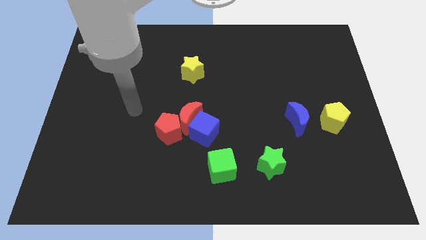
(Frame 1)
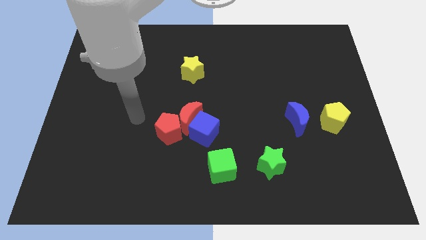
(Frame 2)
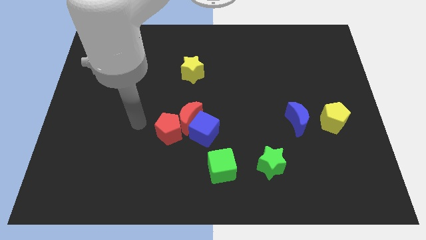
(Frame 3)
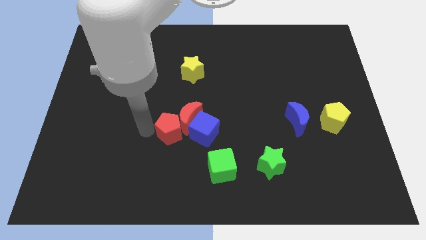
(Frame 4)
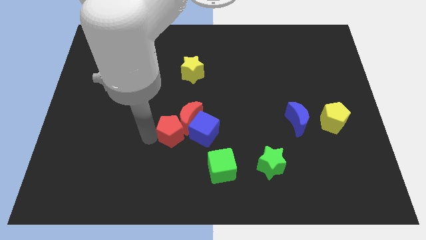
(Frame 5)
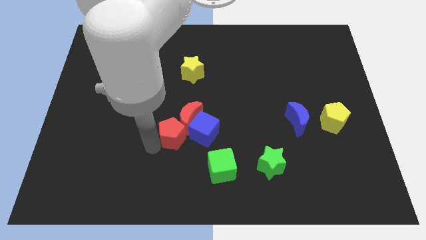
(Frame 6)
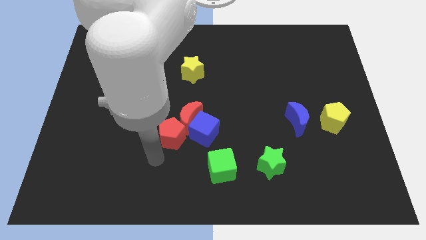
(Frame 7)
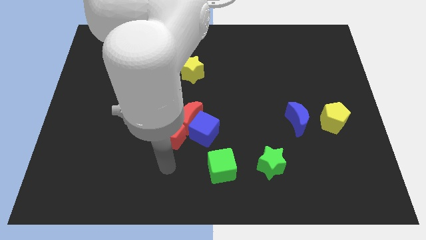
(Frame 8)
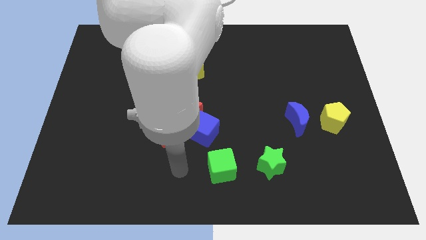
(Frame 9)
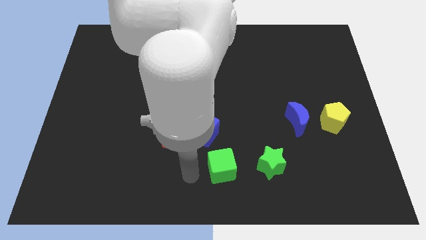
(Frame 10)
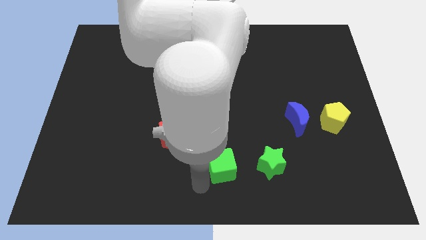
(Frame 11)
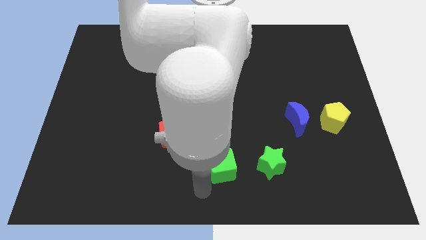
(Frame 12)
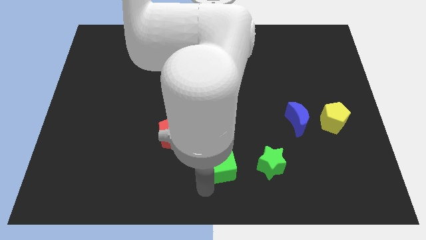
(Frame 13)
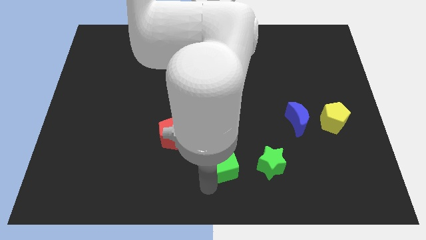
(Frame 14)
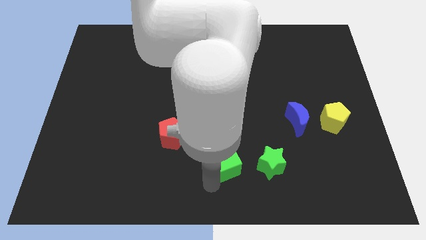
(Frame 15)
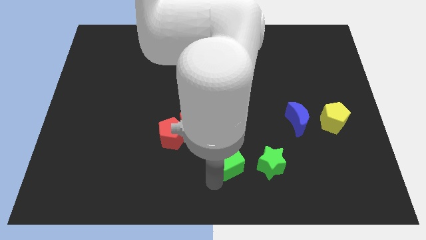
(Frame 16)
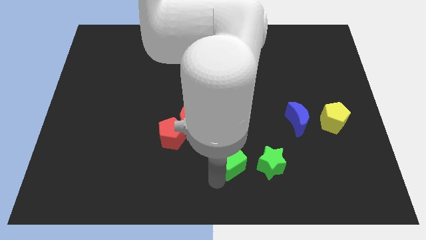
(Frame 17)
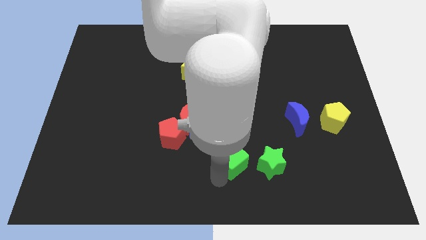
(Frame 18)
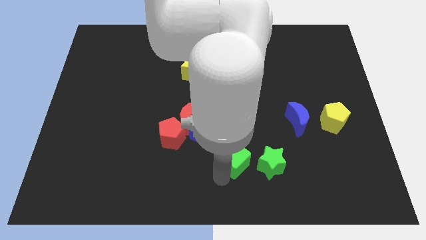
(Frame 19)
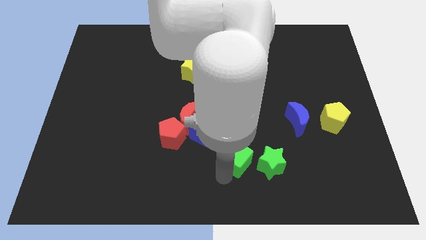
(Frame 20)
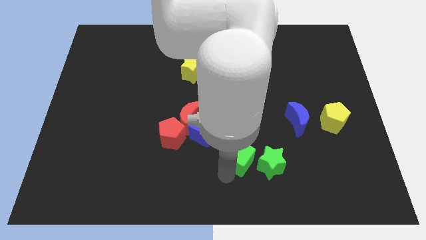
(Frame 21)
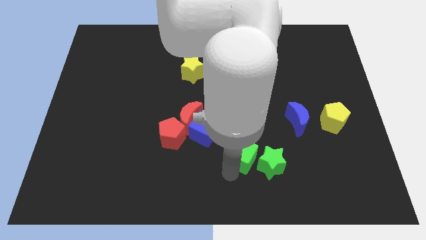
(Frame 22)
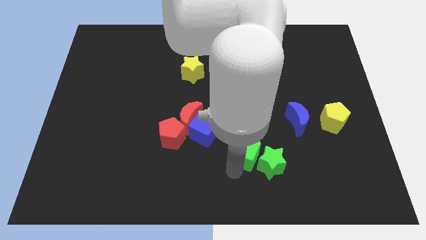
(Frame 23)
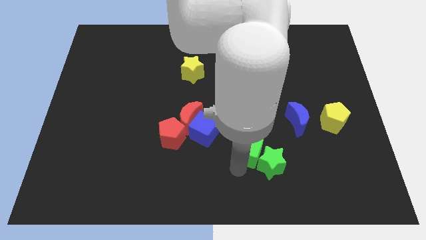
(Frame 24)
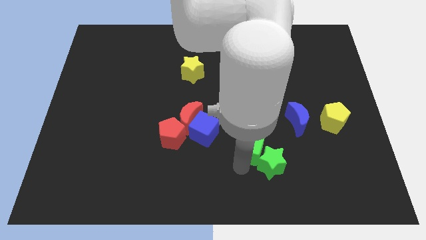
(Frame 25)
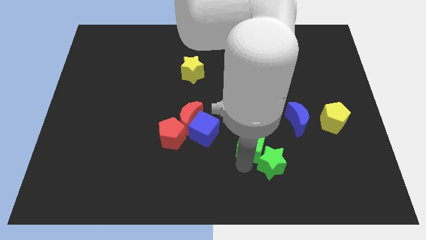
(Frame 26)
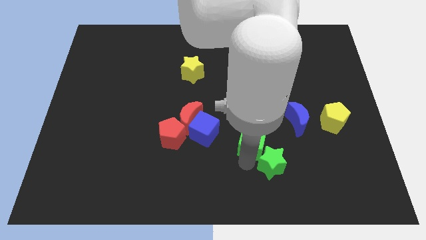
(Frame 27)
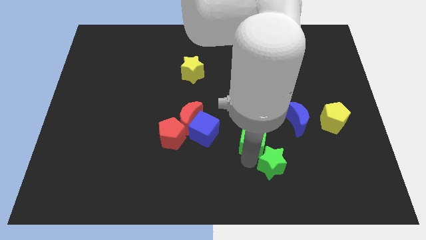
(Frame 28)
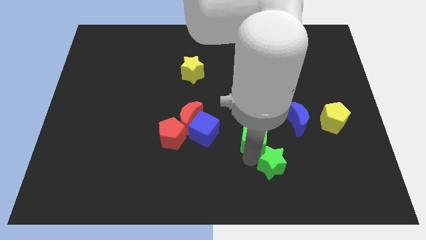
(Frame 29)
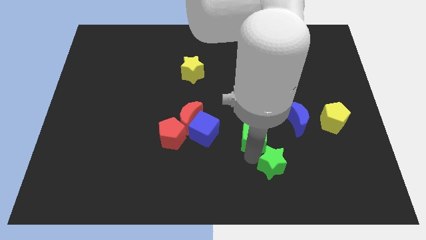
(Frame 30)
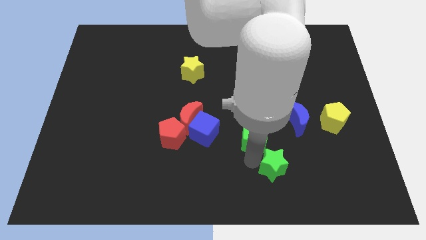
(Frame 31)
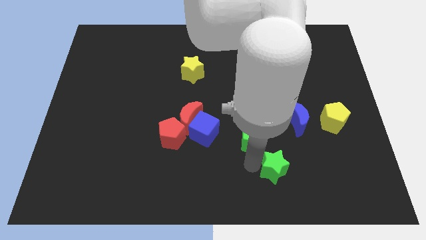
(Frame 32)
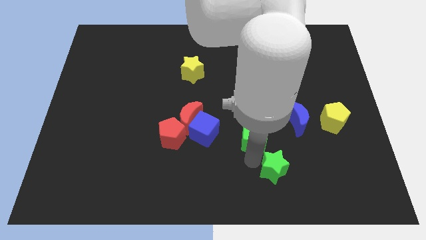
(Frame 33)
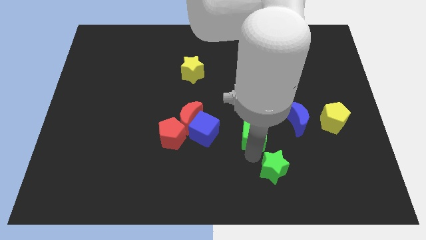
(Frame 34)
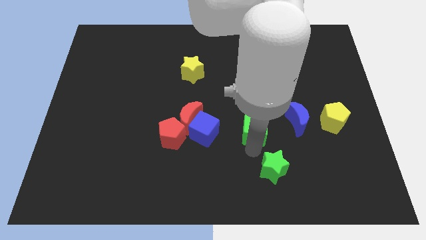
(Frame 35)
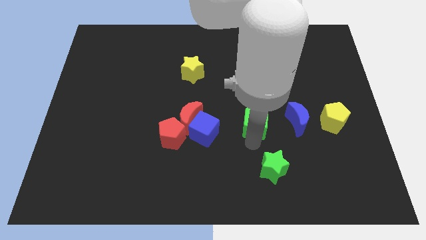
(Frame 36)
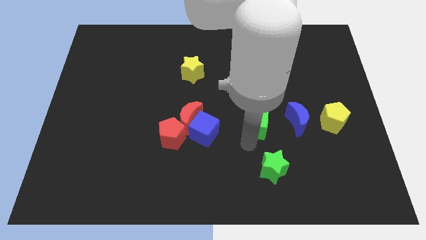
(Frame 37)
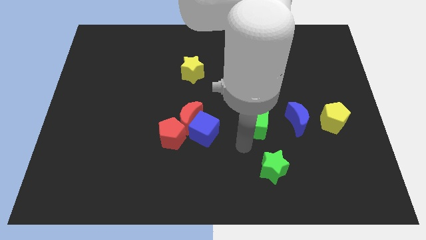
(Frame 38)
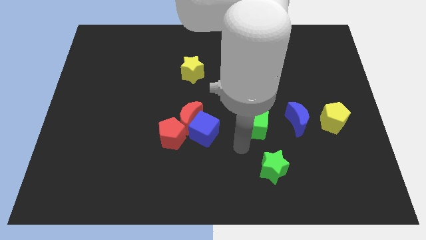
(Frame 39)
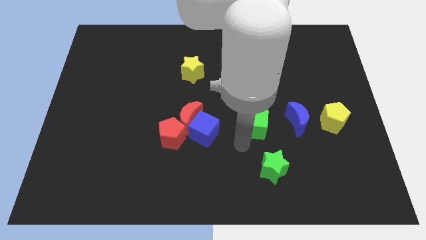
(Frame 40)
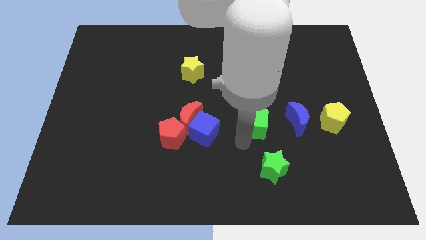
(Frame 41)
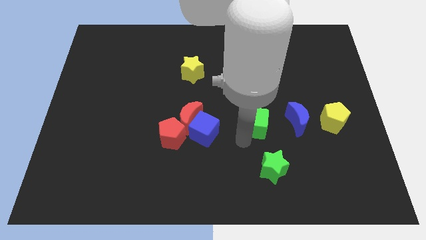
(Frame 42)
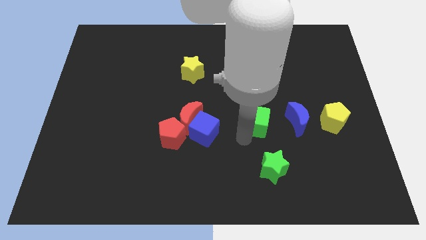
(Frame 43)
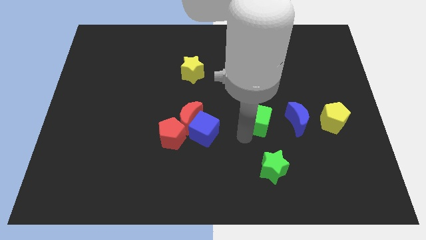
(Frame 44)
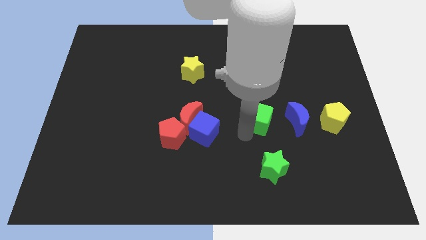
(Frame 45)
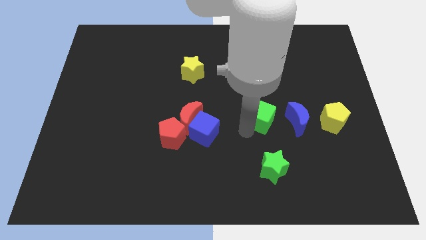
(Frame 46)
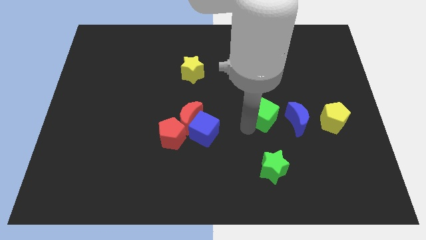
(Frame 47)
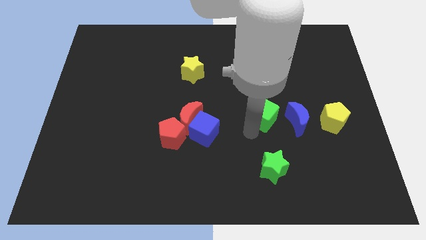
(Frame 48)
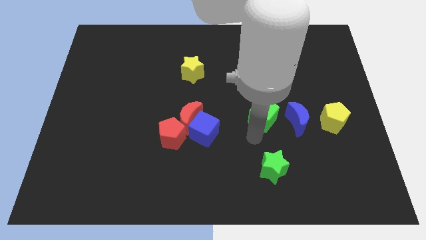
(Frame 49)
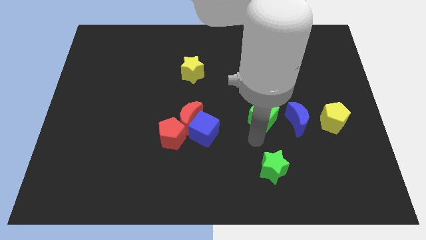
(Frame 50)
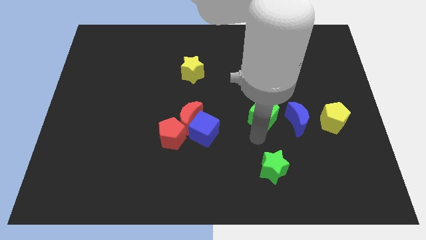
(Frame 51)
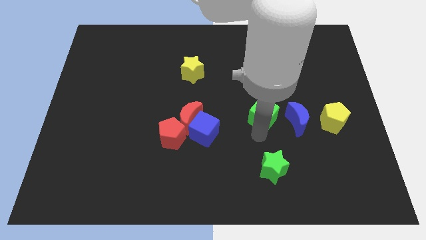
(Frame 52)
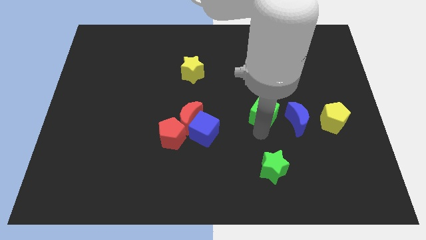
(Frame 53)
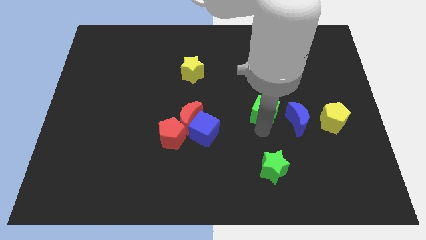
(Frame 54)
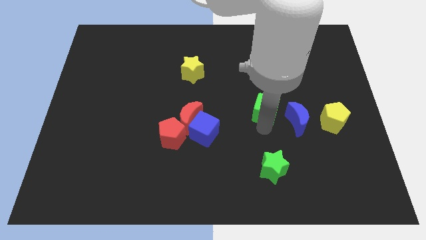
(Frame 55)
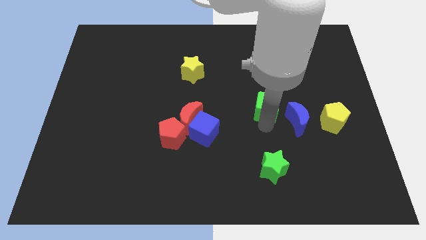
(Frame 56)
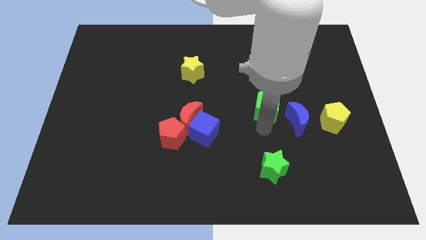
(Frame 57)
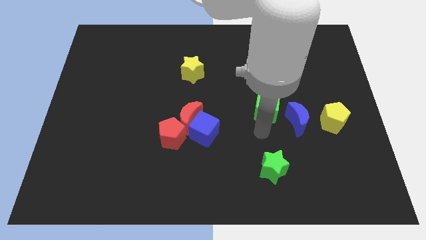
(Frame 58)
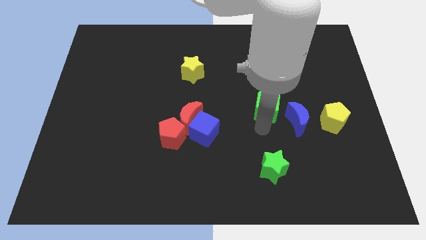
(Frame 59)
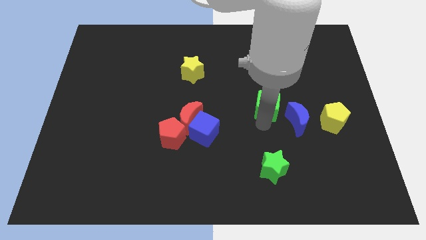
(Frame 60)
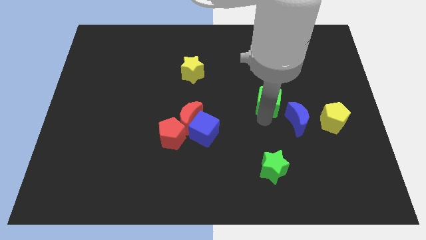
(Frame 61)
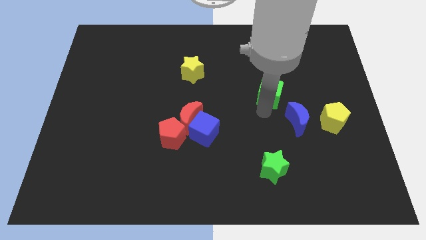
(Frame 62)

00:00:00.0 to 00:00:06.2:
move the green cube upwards and then to the right

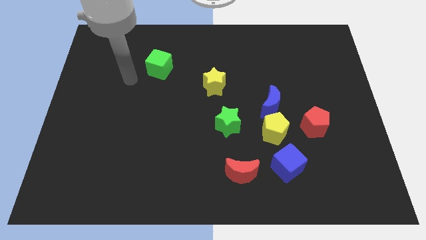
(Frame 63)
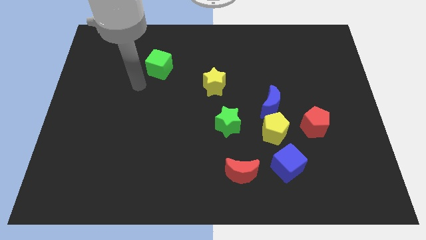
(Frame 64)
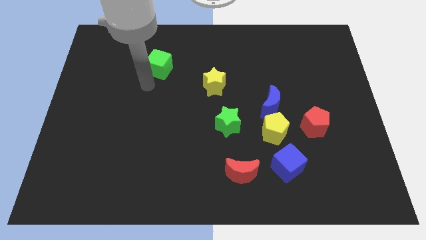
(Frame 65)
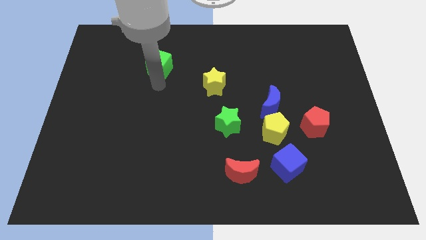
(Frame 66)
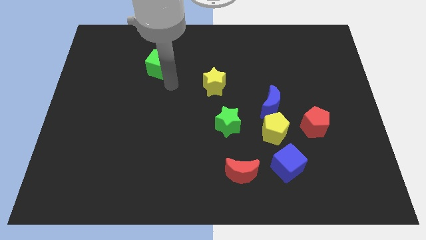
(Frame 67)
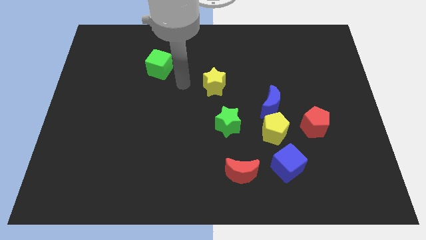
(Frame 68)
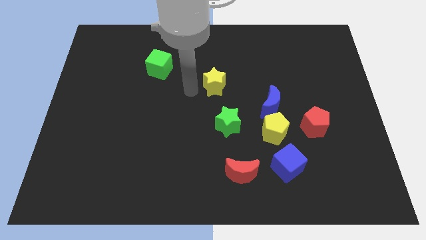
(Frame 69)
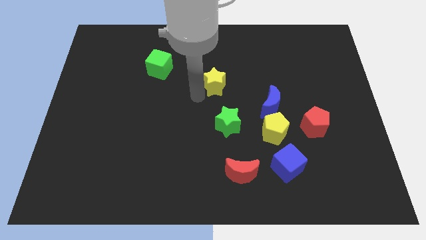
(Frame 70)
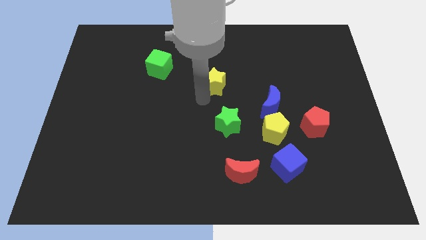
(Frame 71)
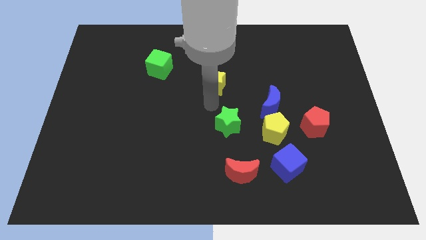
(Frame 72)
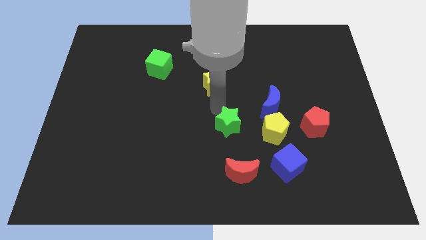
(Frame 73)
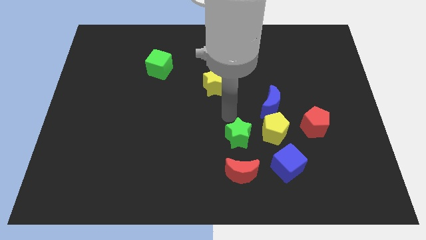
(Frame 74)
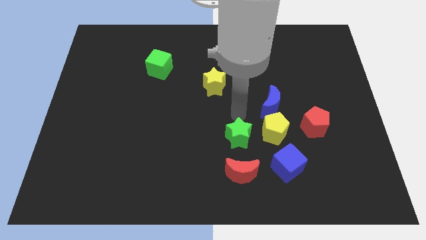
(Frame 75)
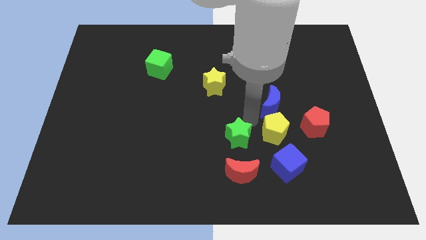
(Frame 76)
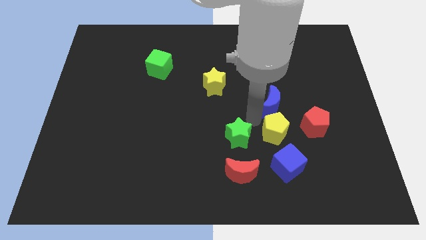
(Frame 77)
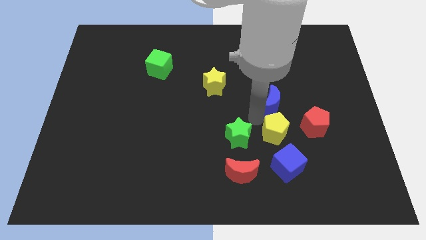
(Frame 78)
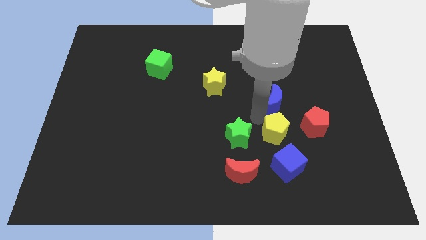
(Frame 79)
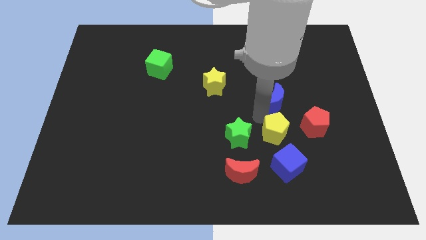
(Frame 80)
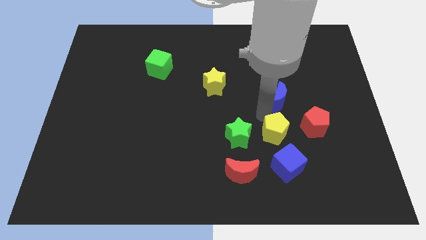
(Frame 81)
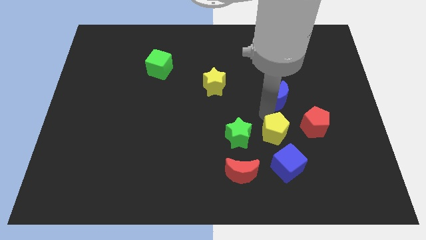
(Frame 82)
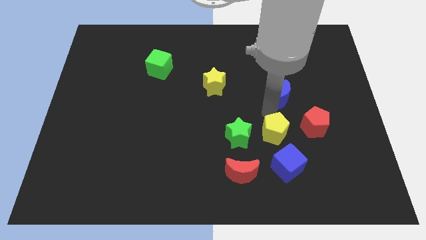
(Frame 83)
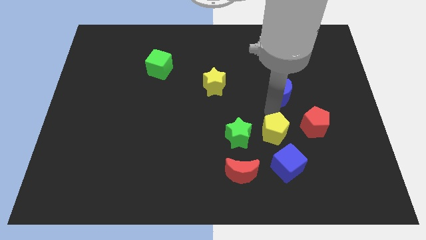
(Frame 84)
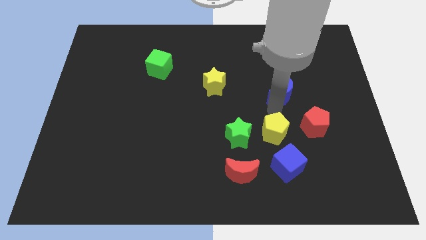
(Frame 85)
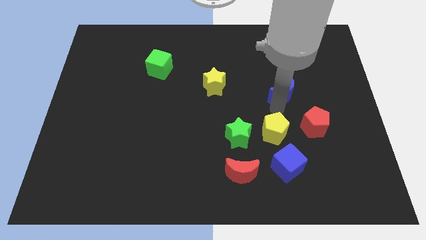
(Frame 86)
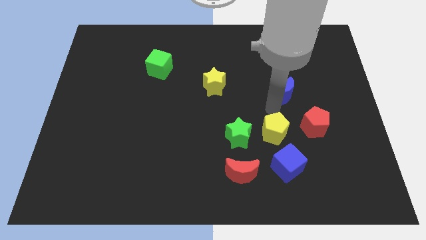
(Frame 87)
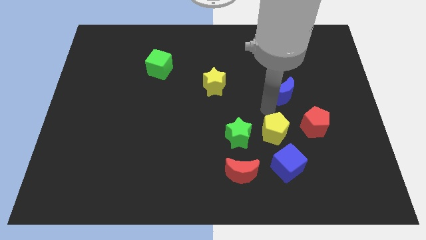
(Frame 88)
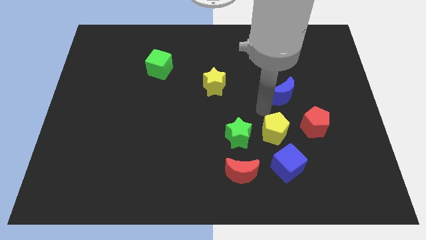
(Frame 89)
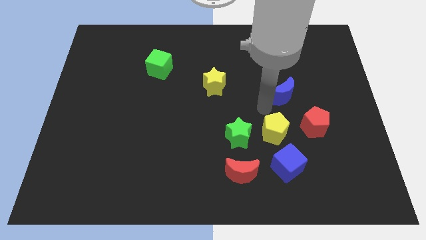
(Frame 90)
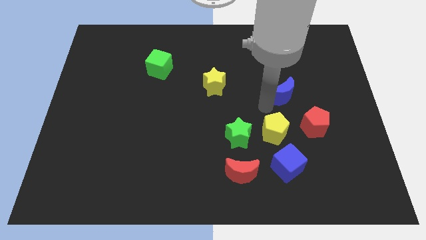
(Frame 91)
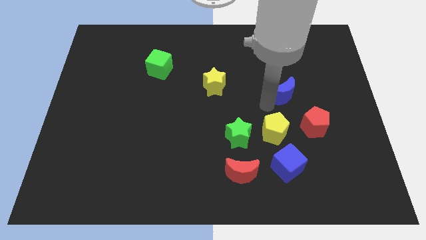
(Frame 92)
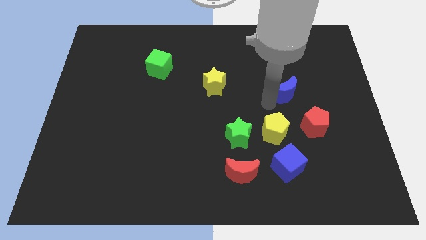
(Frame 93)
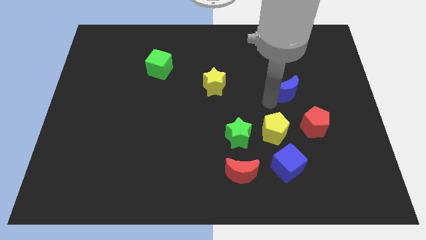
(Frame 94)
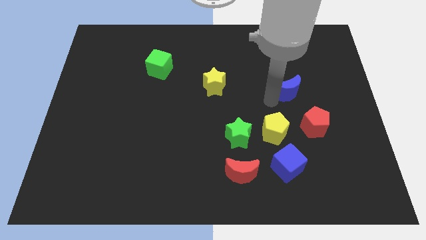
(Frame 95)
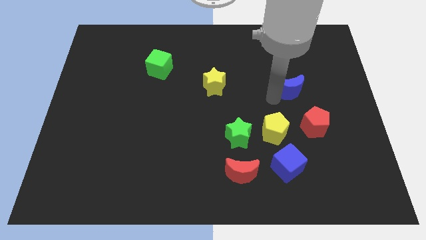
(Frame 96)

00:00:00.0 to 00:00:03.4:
slightly slide the blue moon diagonally upwards and right
